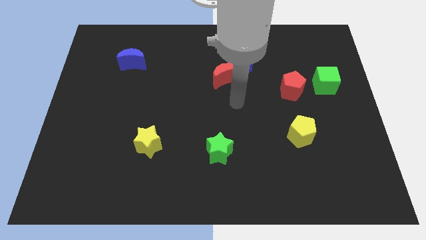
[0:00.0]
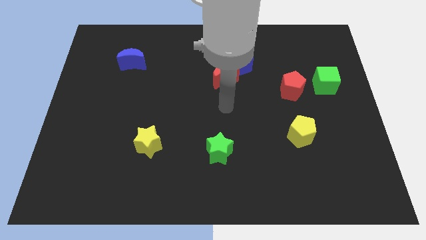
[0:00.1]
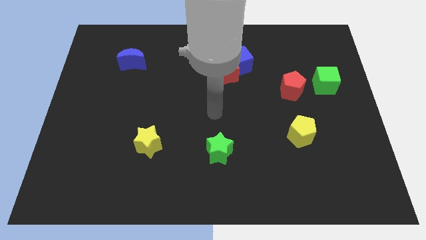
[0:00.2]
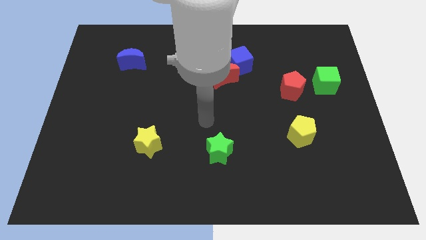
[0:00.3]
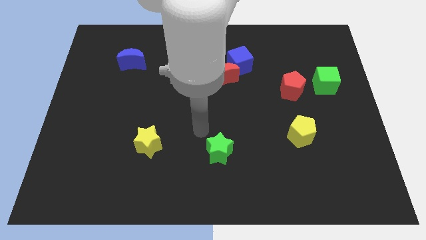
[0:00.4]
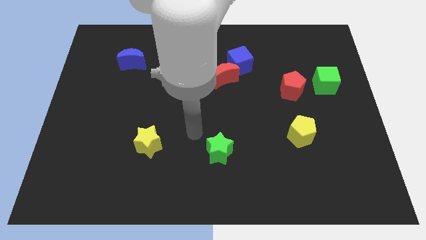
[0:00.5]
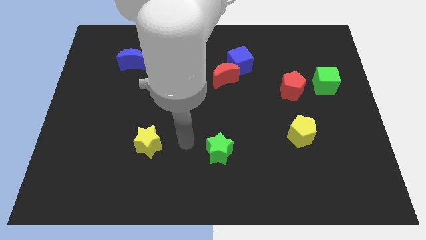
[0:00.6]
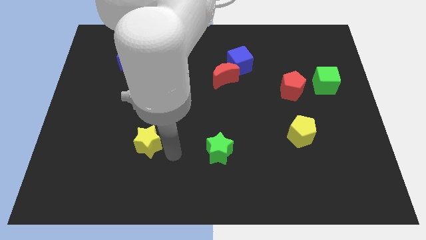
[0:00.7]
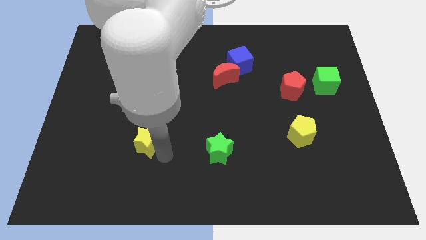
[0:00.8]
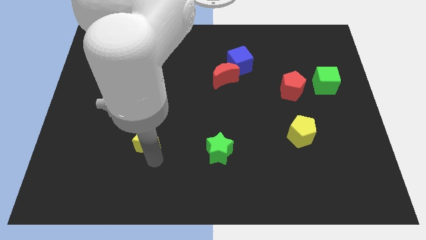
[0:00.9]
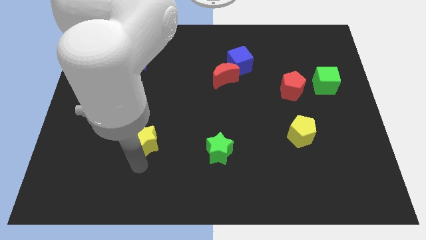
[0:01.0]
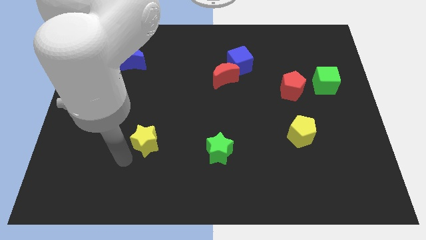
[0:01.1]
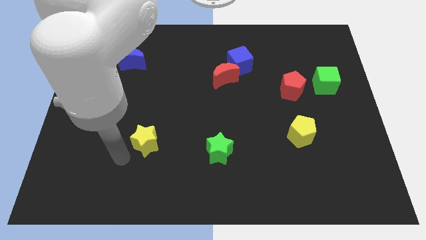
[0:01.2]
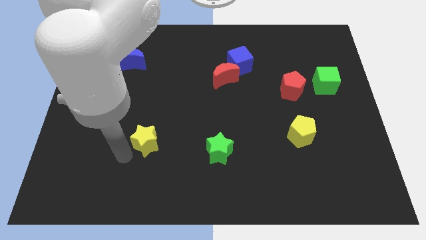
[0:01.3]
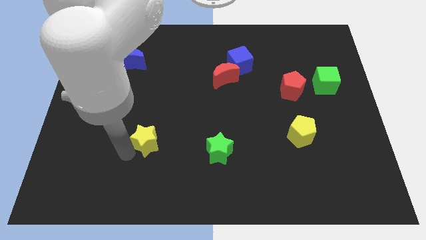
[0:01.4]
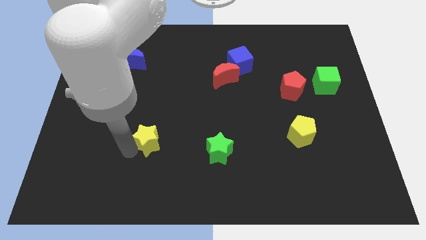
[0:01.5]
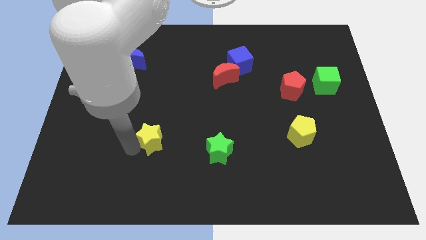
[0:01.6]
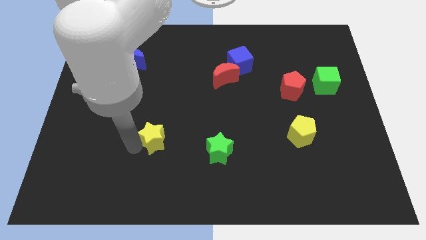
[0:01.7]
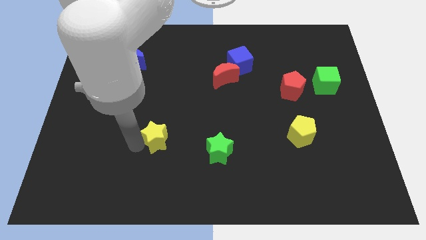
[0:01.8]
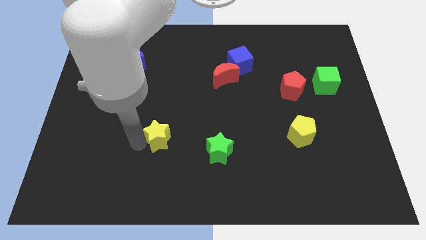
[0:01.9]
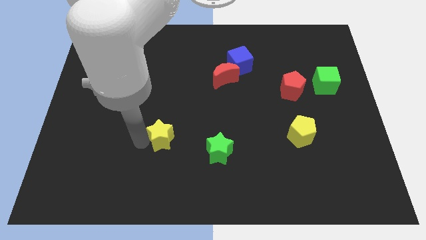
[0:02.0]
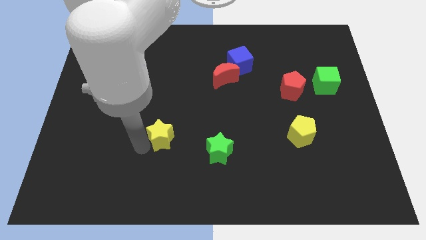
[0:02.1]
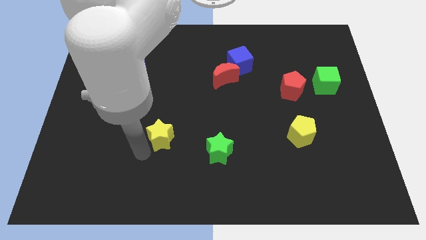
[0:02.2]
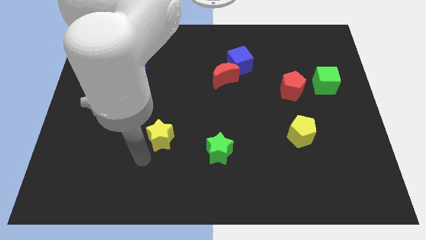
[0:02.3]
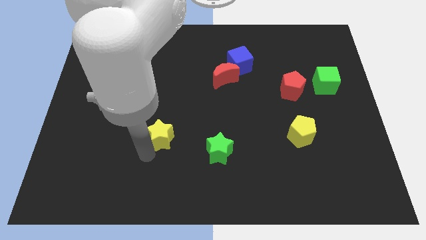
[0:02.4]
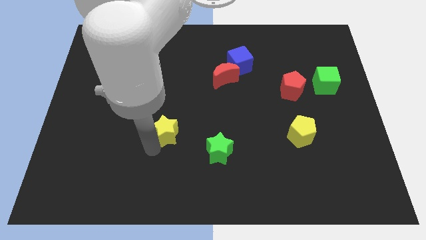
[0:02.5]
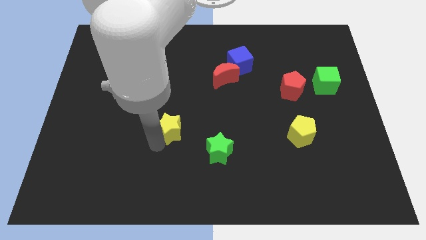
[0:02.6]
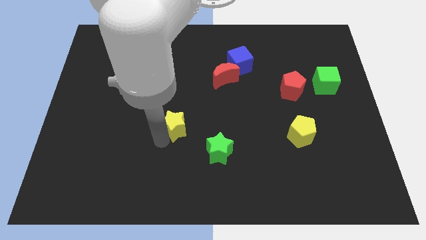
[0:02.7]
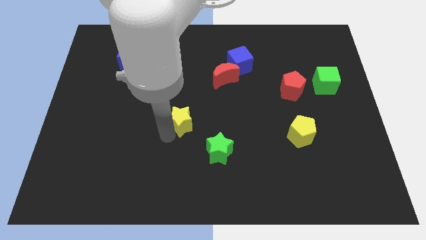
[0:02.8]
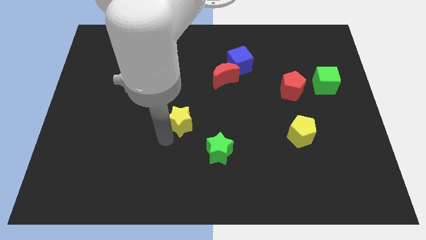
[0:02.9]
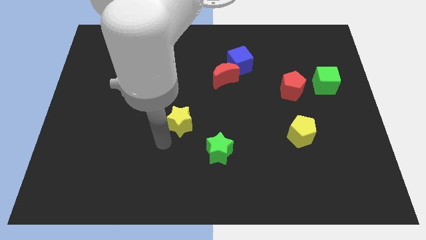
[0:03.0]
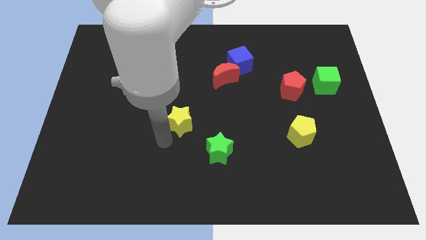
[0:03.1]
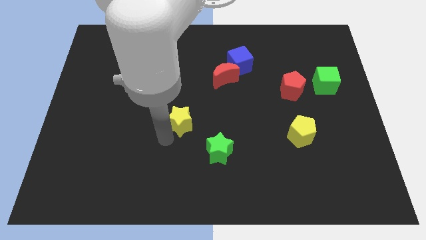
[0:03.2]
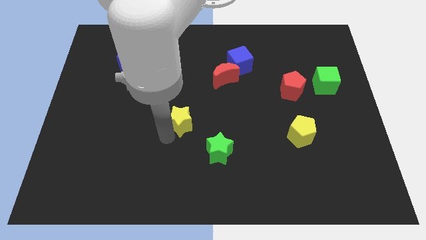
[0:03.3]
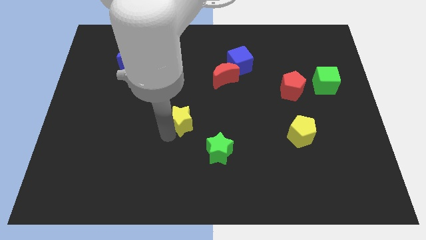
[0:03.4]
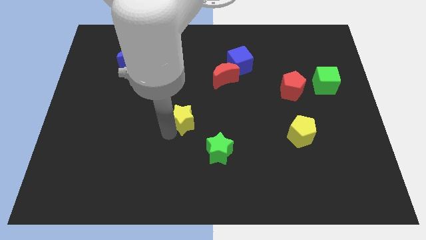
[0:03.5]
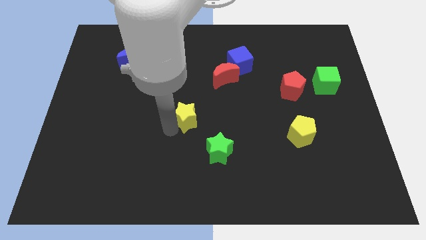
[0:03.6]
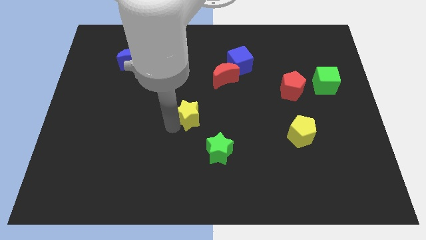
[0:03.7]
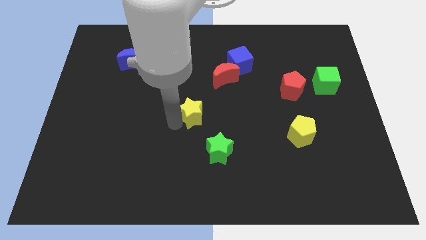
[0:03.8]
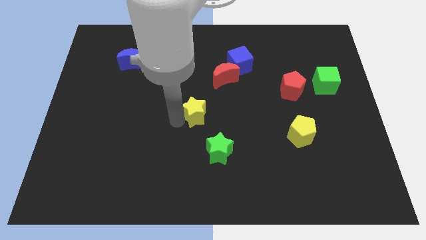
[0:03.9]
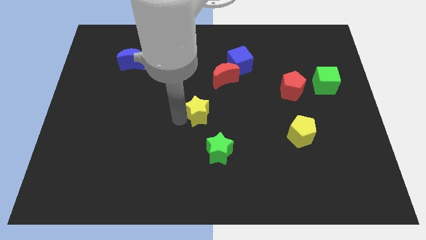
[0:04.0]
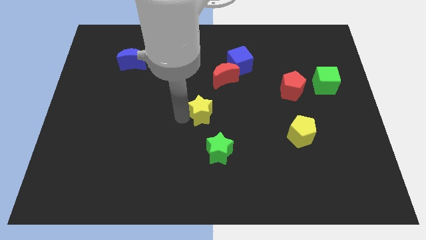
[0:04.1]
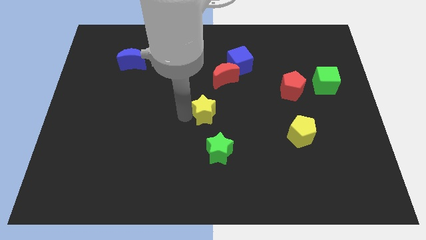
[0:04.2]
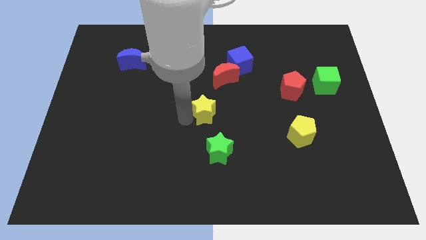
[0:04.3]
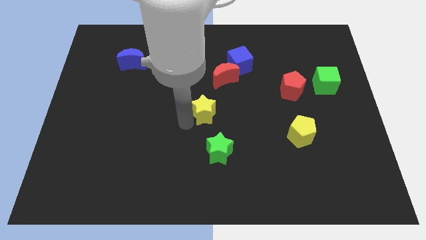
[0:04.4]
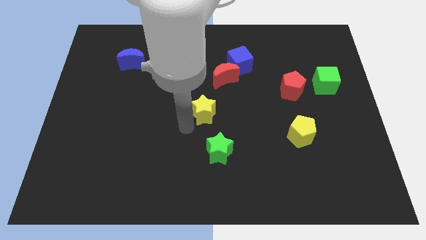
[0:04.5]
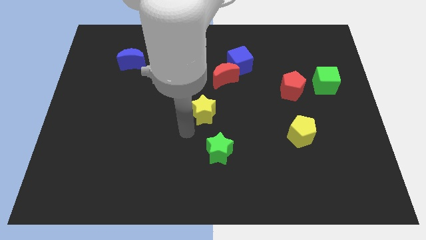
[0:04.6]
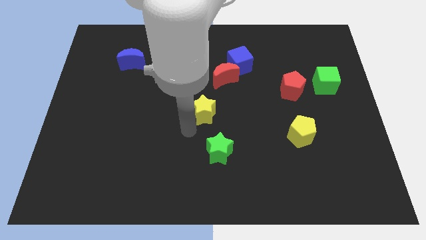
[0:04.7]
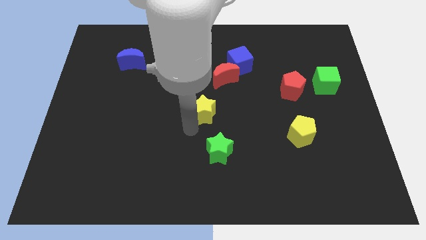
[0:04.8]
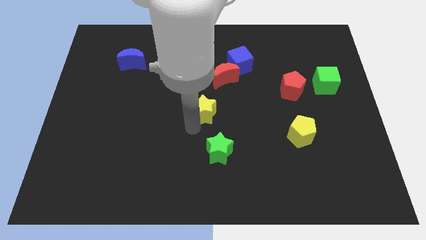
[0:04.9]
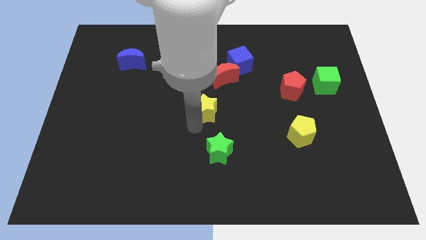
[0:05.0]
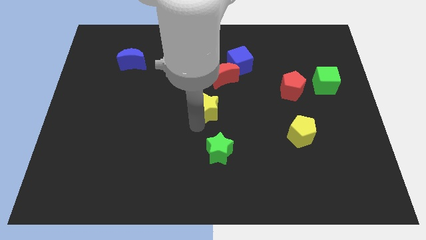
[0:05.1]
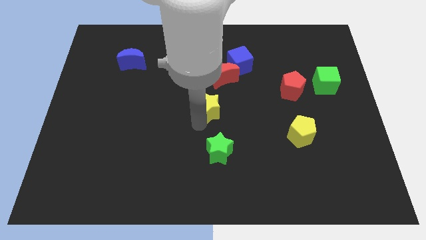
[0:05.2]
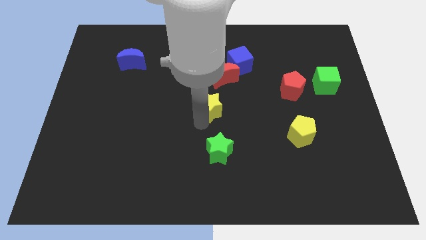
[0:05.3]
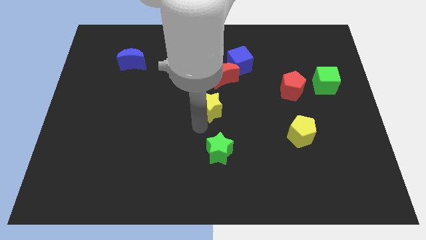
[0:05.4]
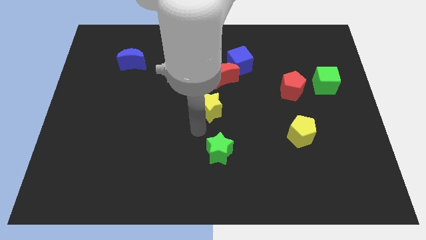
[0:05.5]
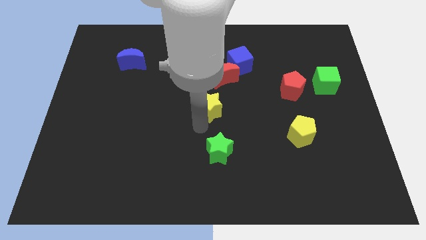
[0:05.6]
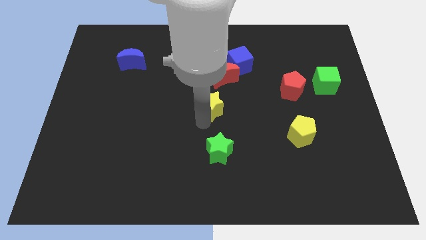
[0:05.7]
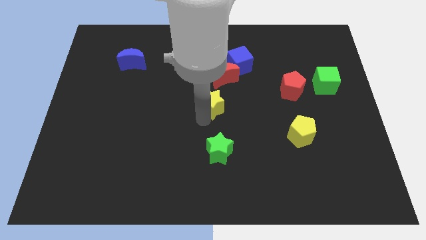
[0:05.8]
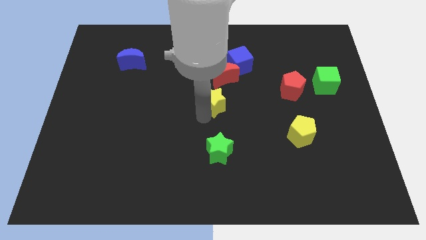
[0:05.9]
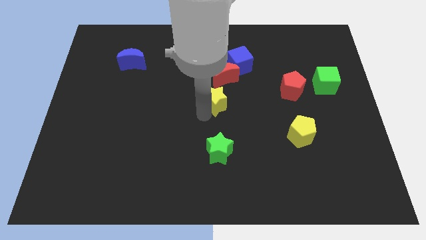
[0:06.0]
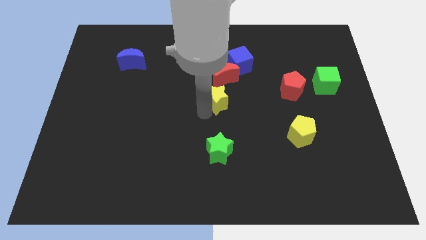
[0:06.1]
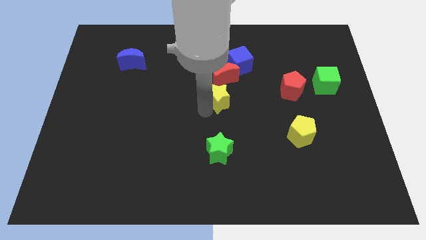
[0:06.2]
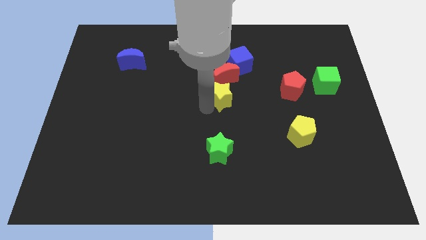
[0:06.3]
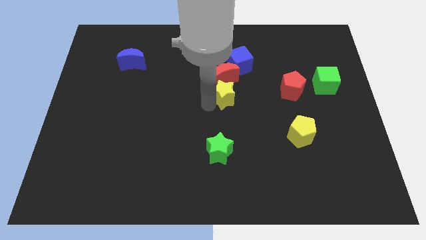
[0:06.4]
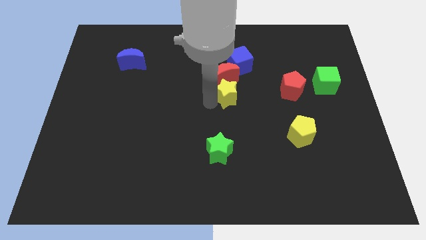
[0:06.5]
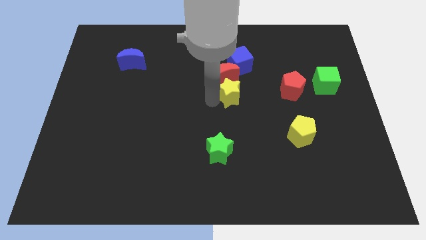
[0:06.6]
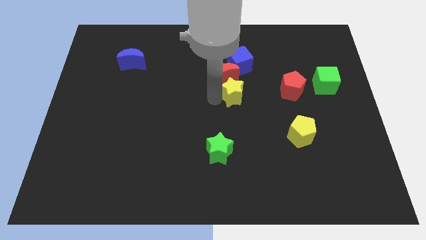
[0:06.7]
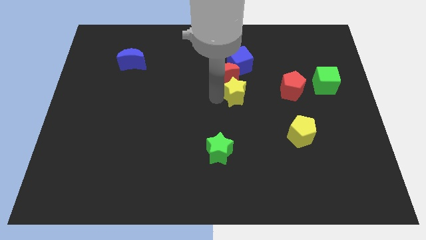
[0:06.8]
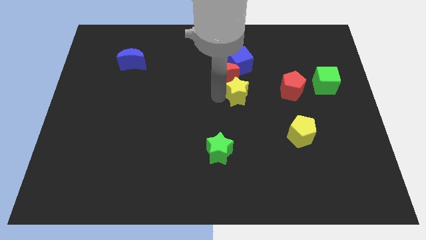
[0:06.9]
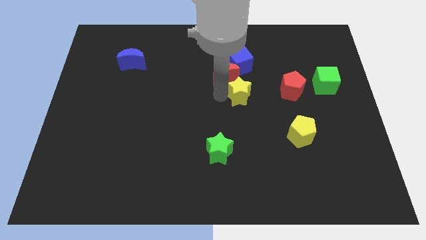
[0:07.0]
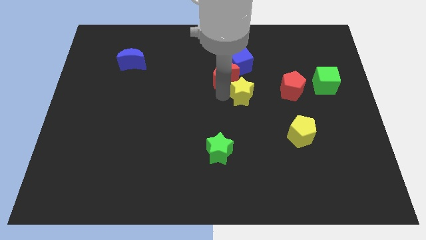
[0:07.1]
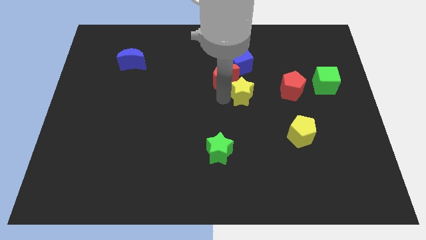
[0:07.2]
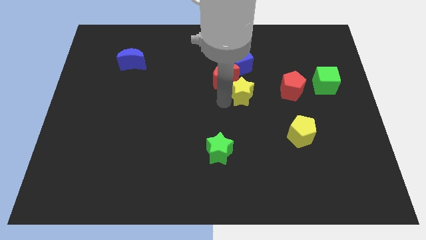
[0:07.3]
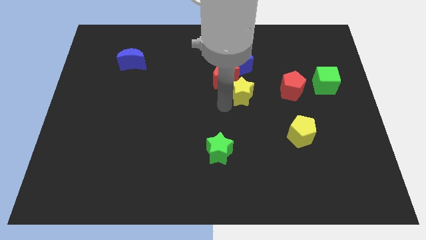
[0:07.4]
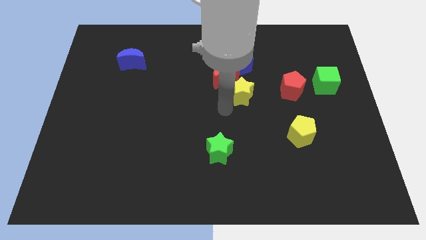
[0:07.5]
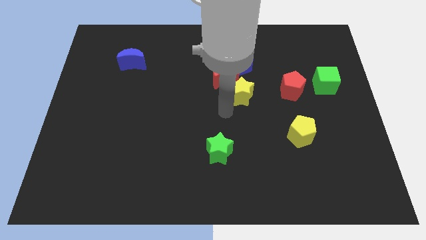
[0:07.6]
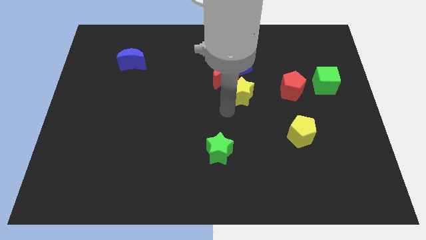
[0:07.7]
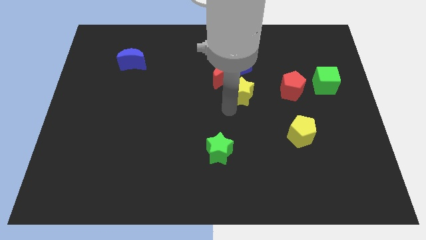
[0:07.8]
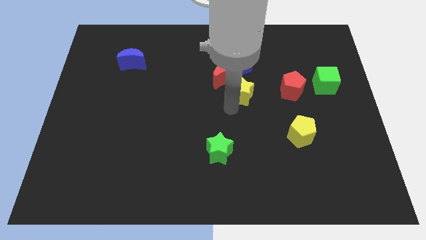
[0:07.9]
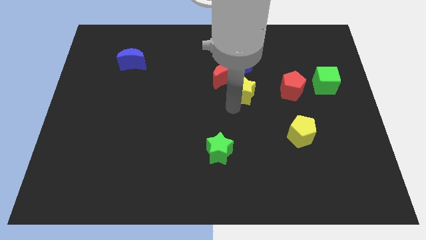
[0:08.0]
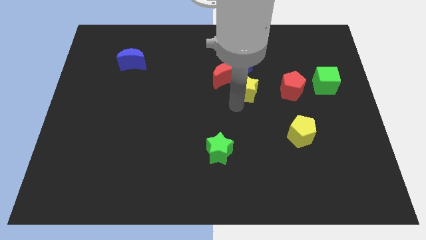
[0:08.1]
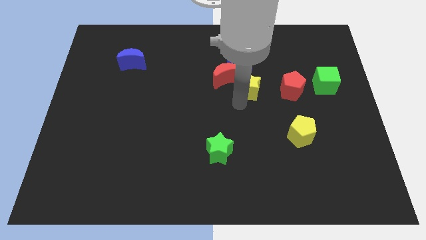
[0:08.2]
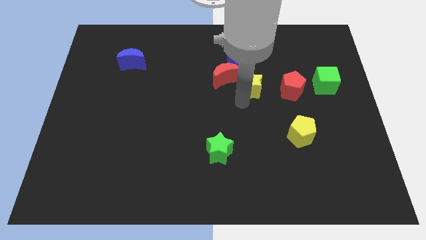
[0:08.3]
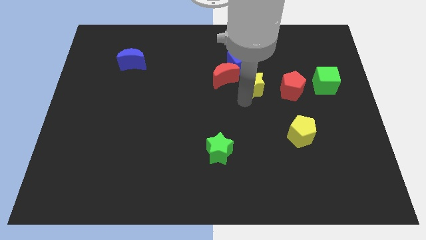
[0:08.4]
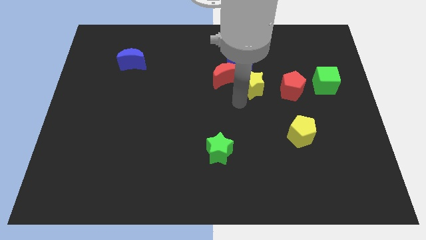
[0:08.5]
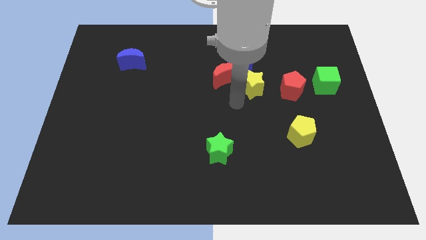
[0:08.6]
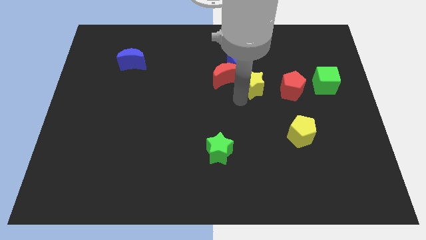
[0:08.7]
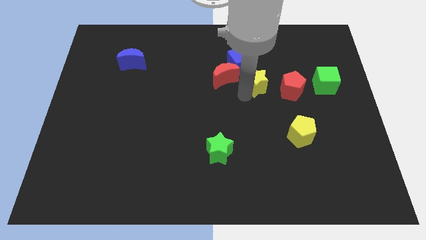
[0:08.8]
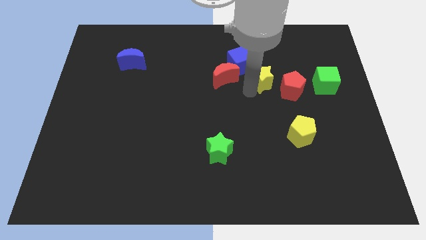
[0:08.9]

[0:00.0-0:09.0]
push the yellow star diagonally up and to the left of the red pentagon
